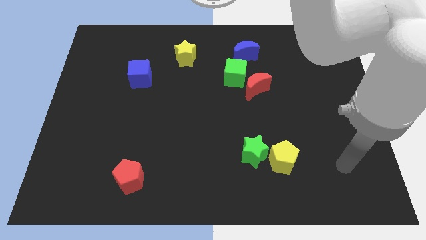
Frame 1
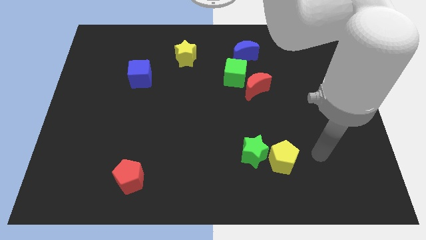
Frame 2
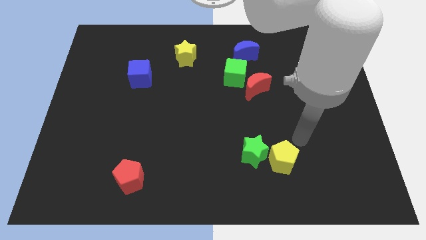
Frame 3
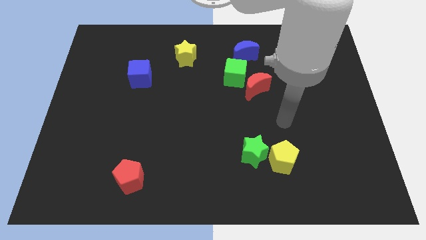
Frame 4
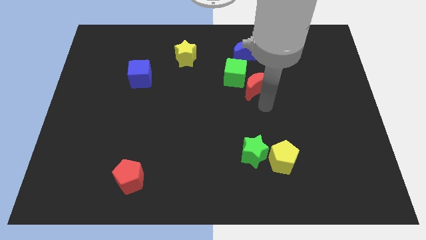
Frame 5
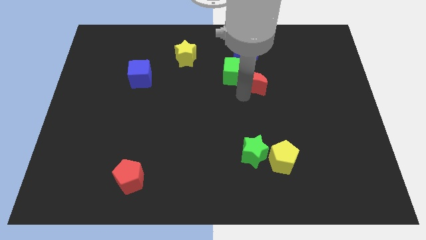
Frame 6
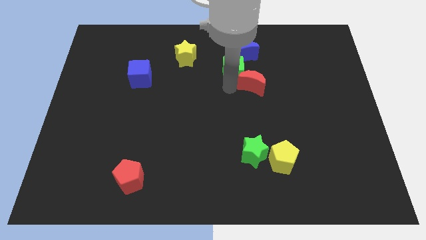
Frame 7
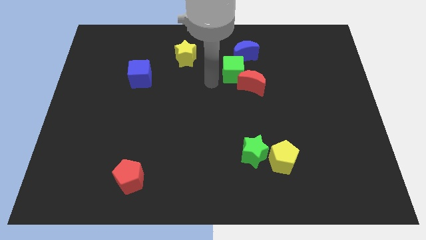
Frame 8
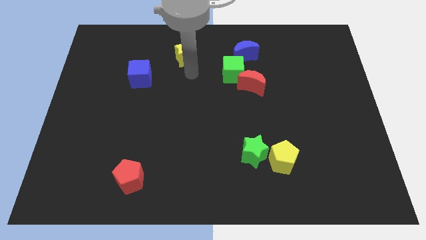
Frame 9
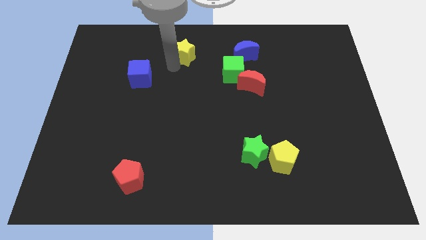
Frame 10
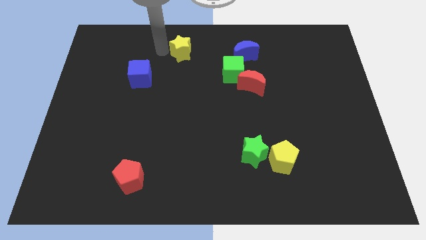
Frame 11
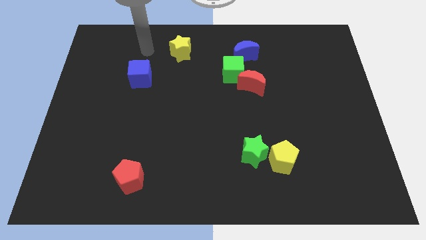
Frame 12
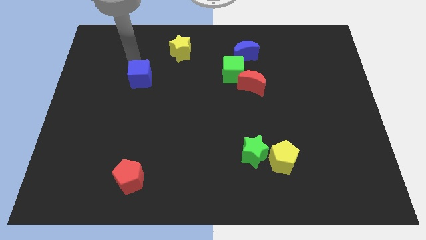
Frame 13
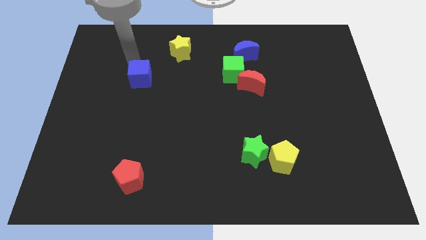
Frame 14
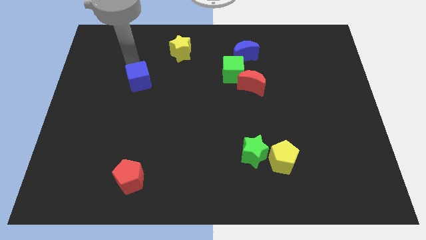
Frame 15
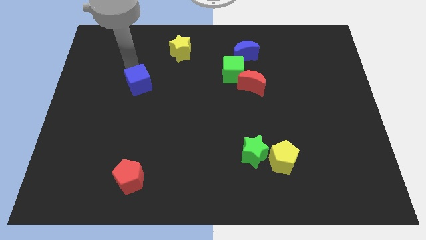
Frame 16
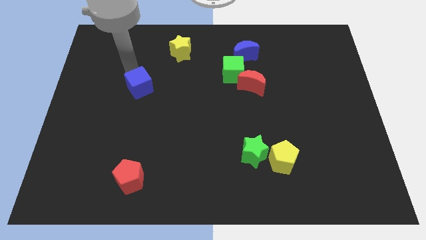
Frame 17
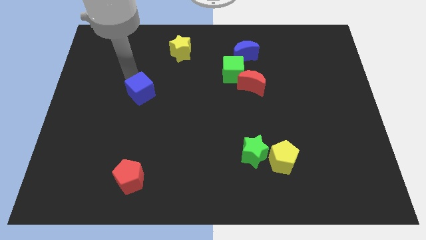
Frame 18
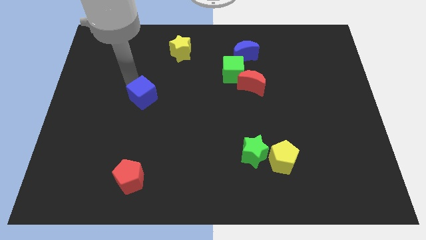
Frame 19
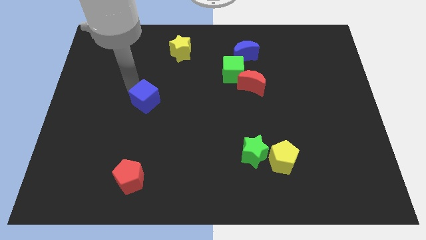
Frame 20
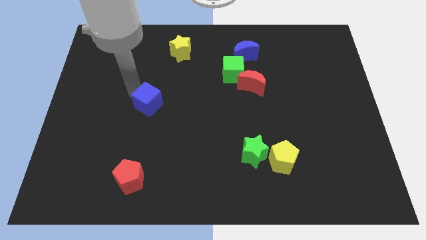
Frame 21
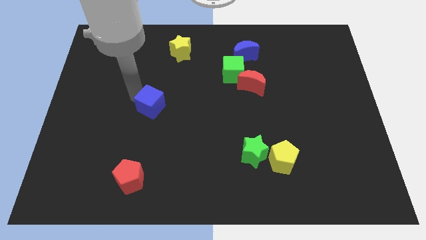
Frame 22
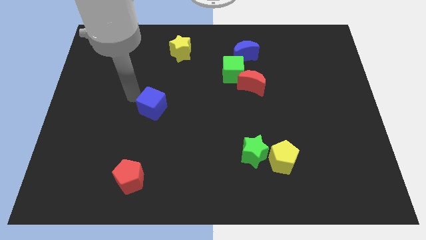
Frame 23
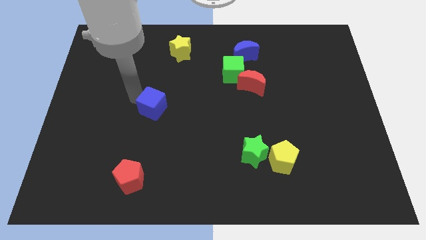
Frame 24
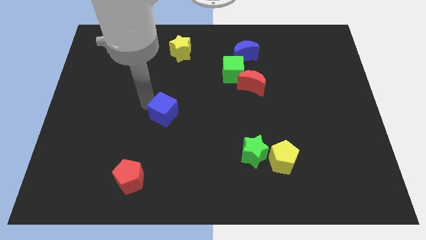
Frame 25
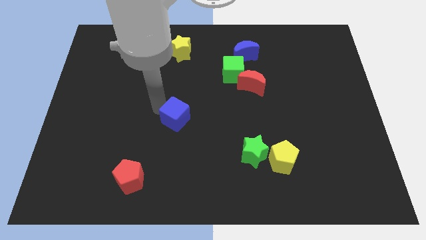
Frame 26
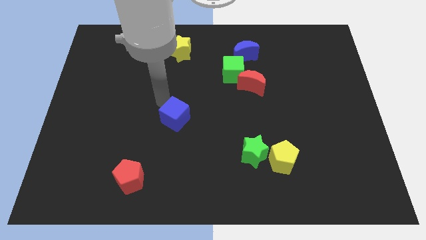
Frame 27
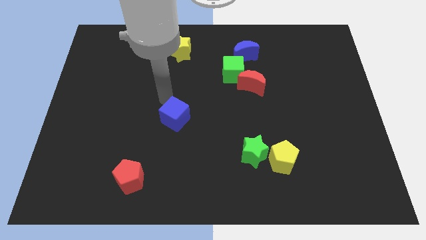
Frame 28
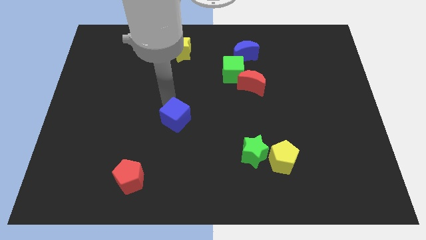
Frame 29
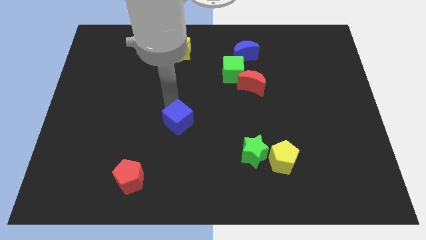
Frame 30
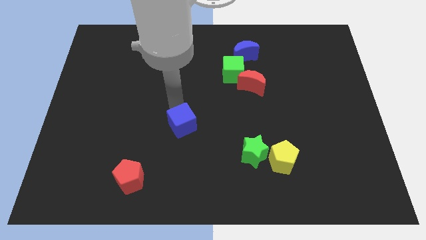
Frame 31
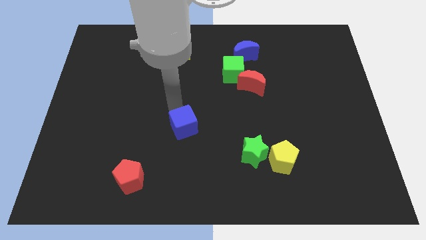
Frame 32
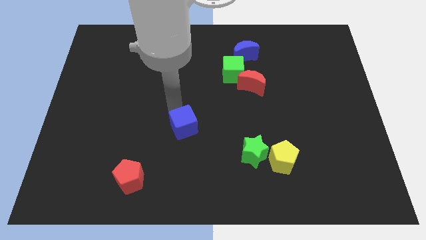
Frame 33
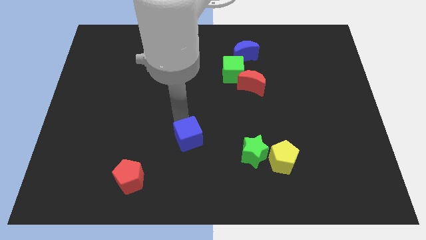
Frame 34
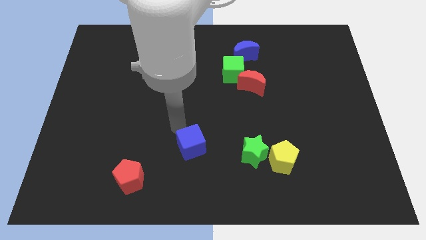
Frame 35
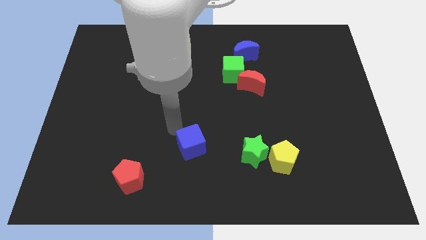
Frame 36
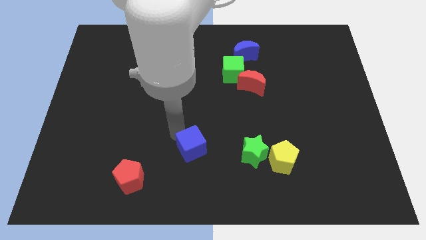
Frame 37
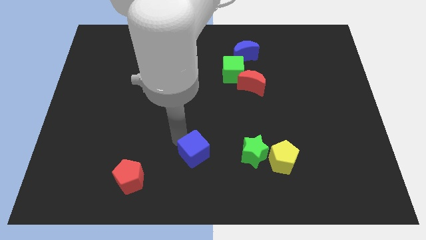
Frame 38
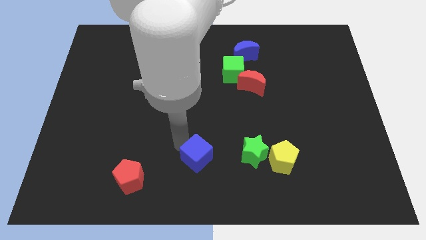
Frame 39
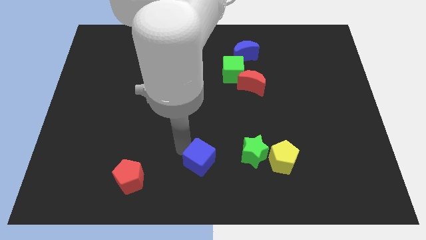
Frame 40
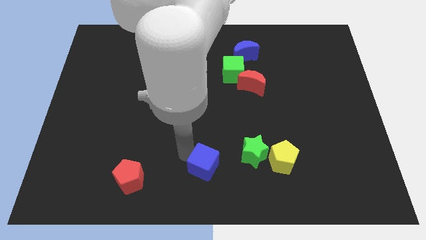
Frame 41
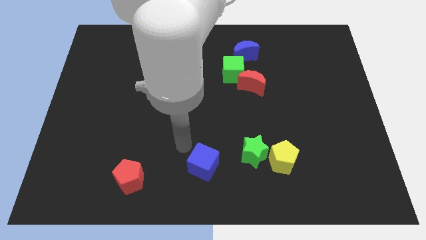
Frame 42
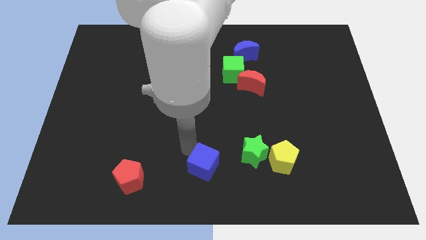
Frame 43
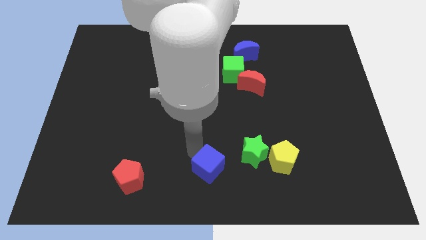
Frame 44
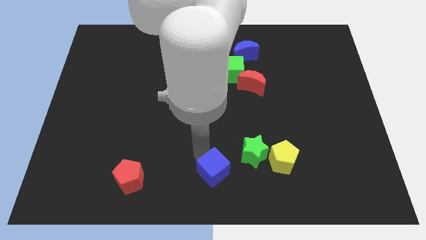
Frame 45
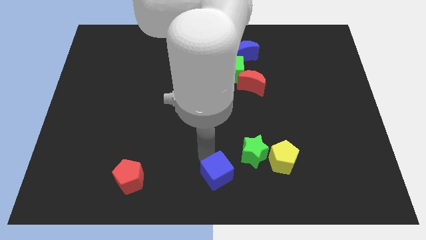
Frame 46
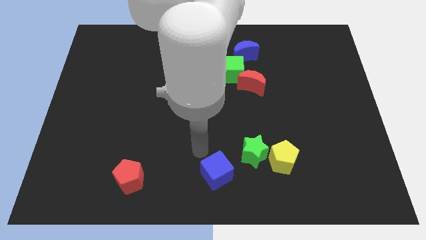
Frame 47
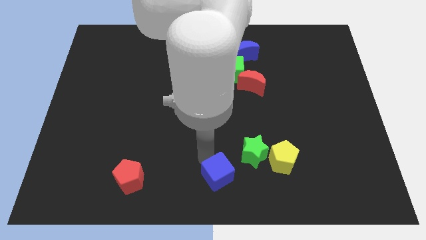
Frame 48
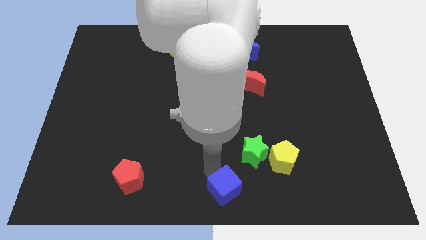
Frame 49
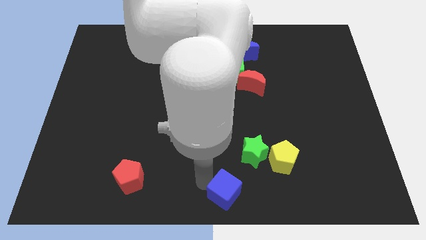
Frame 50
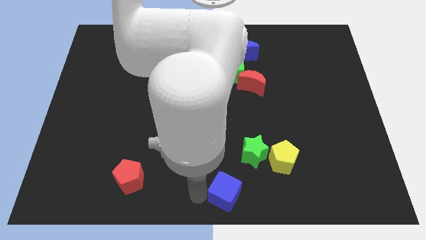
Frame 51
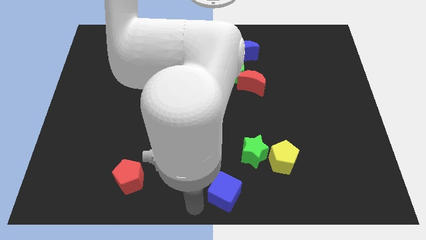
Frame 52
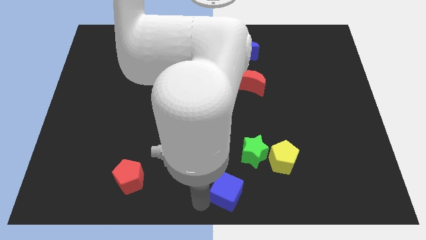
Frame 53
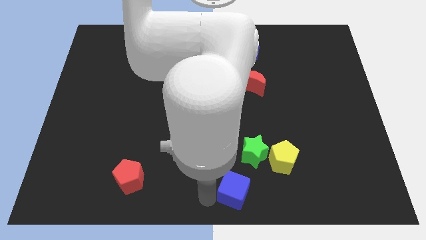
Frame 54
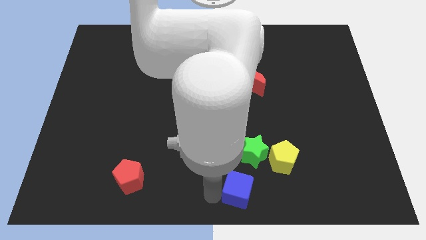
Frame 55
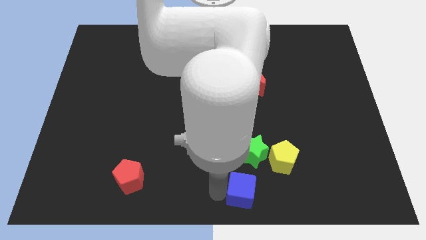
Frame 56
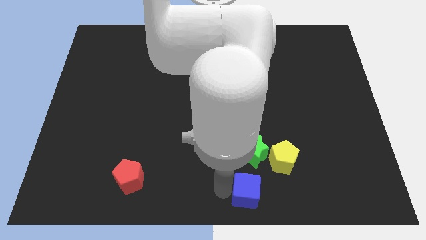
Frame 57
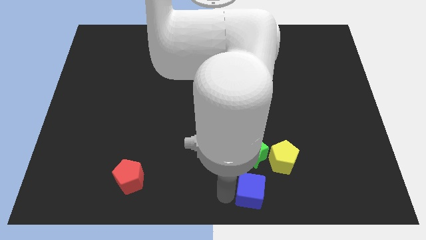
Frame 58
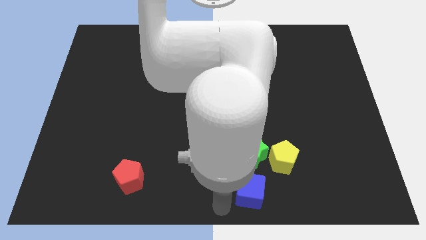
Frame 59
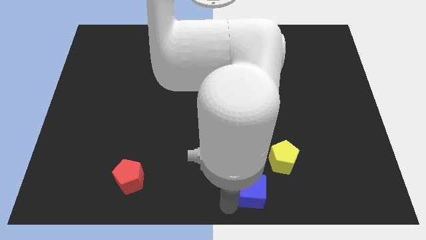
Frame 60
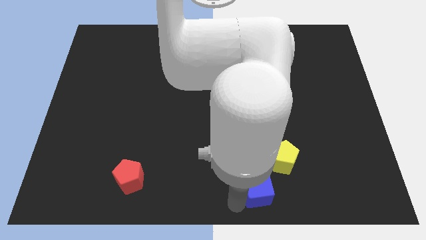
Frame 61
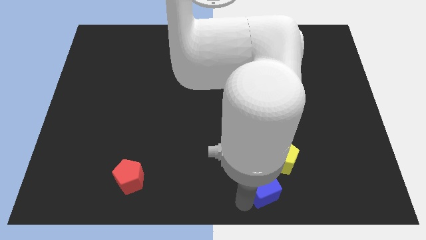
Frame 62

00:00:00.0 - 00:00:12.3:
slide the blue cube to the bottom right side of the green star
